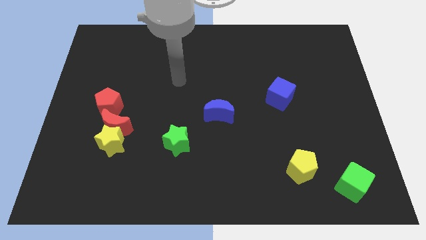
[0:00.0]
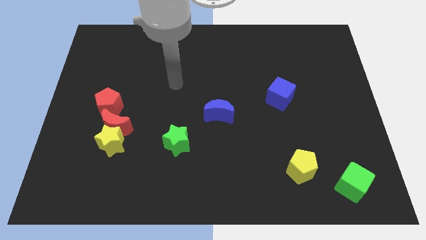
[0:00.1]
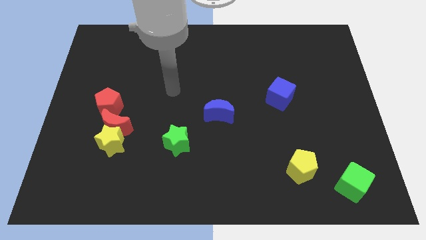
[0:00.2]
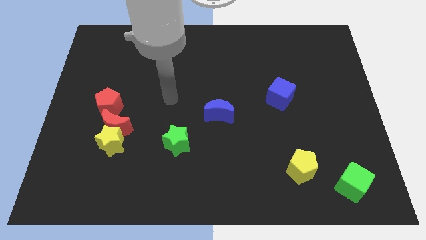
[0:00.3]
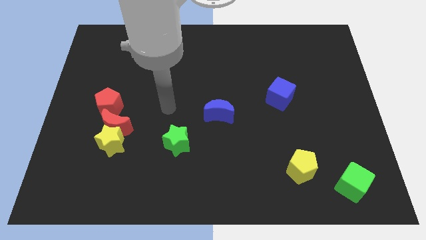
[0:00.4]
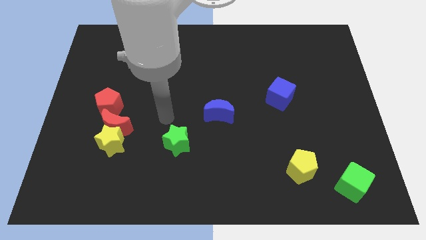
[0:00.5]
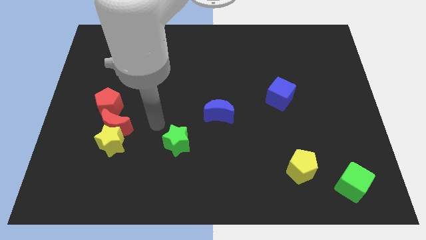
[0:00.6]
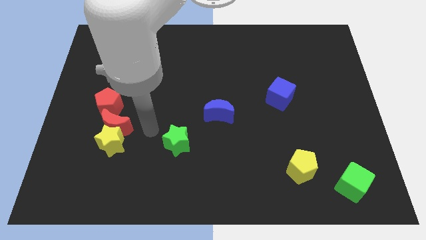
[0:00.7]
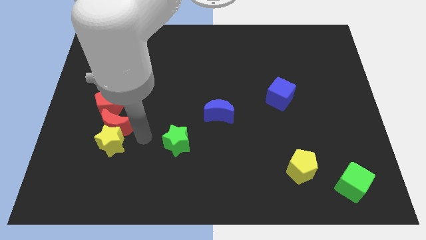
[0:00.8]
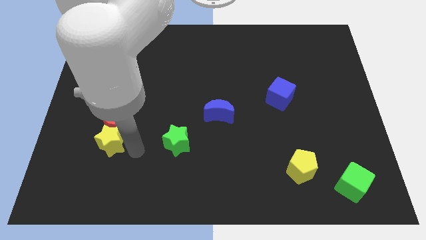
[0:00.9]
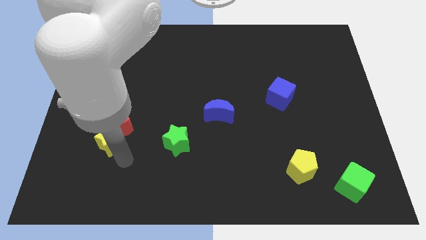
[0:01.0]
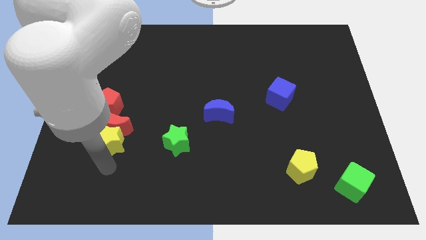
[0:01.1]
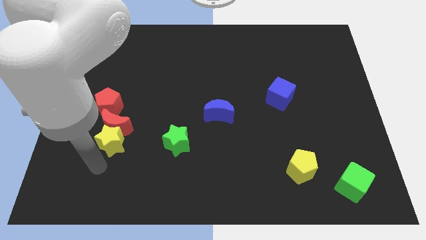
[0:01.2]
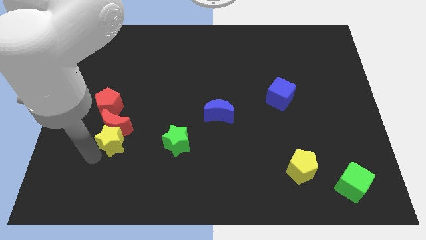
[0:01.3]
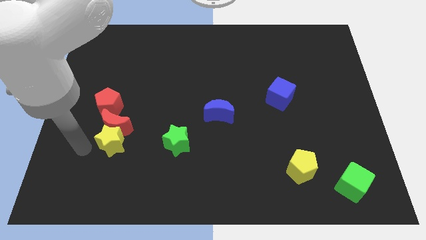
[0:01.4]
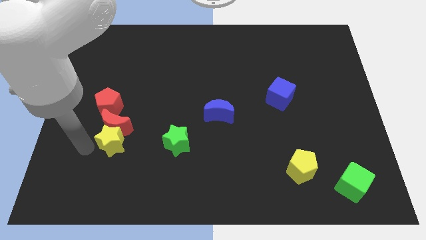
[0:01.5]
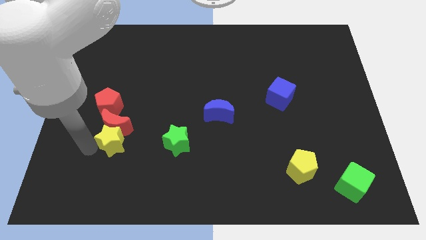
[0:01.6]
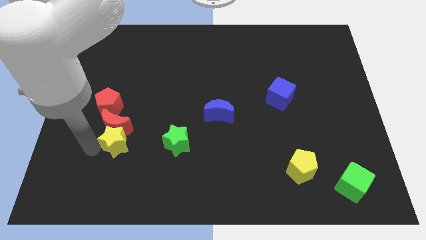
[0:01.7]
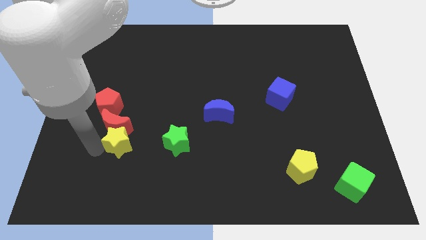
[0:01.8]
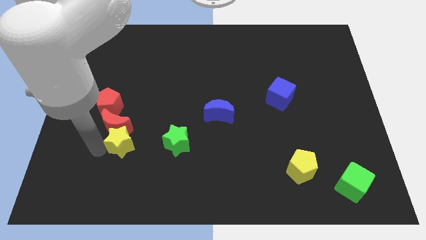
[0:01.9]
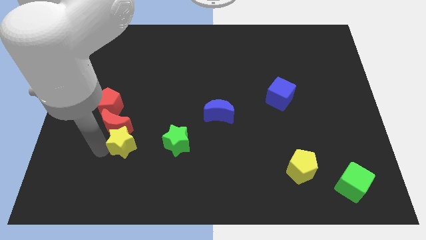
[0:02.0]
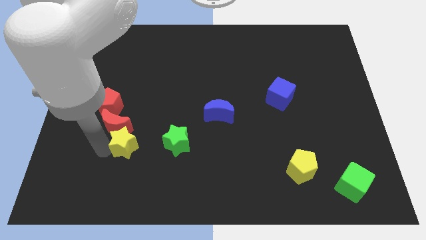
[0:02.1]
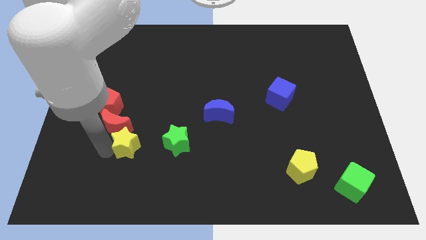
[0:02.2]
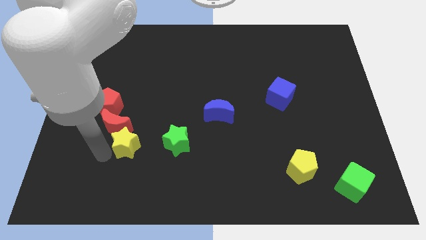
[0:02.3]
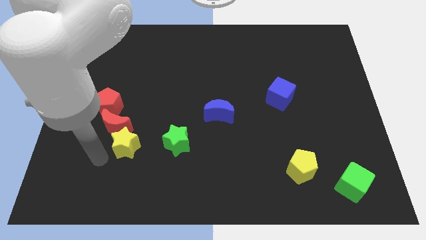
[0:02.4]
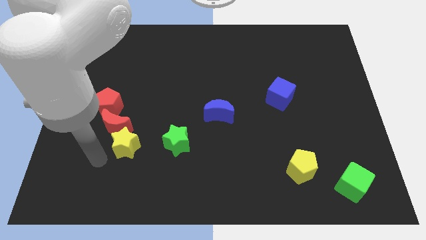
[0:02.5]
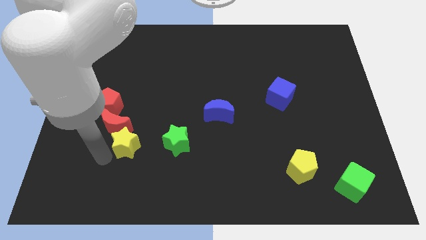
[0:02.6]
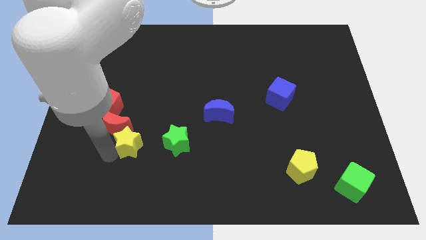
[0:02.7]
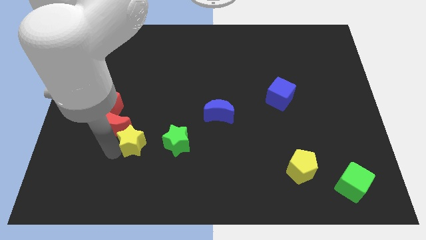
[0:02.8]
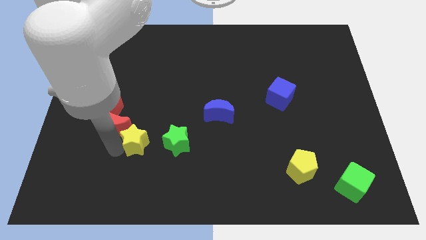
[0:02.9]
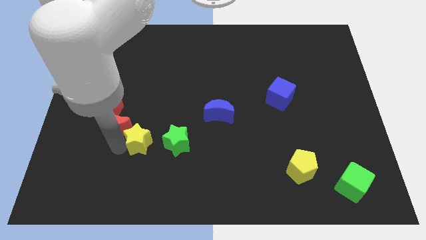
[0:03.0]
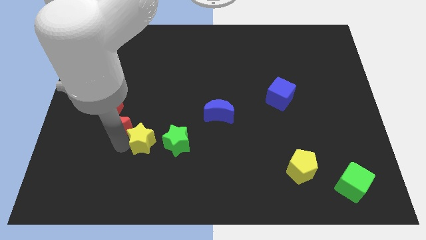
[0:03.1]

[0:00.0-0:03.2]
slide the yellow star slightly to the right

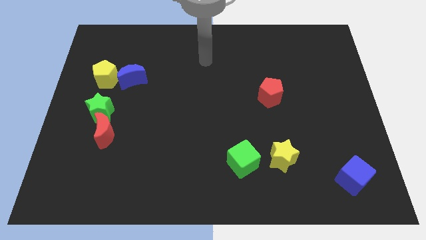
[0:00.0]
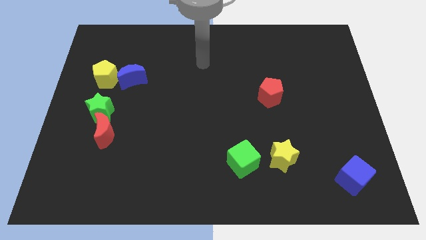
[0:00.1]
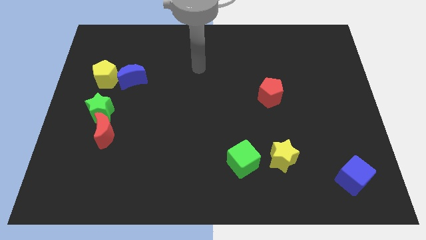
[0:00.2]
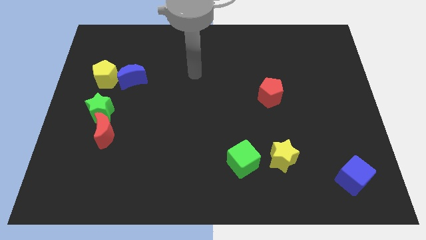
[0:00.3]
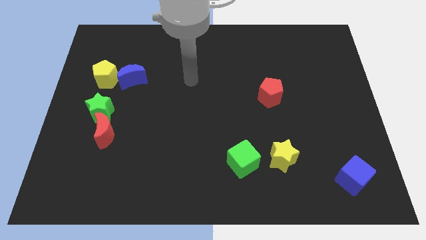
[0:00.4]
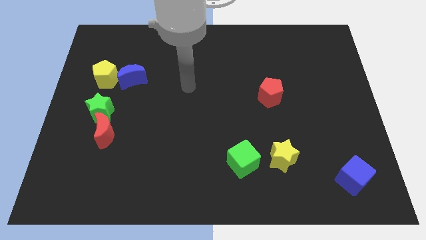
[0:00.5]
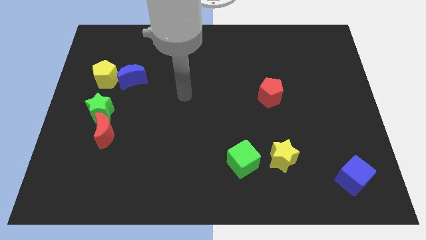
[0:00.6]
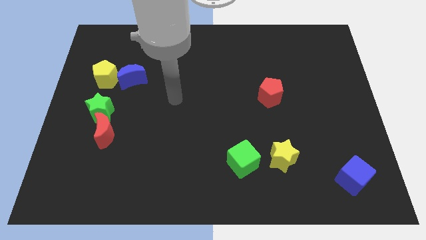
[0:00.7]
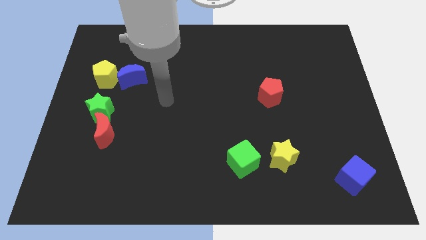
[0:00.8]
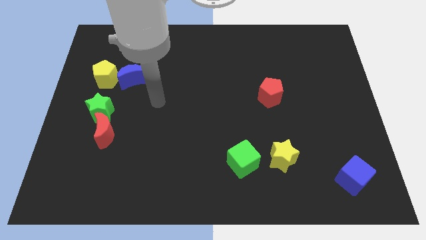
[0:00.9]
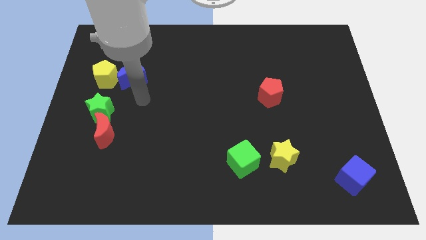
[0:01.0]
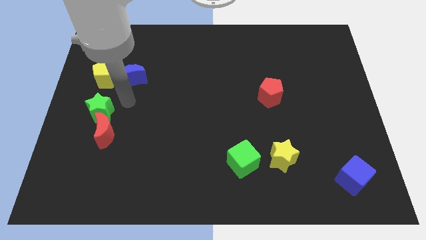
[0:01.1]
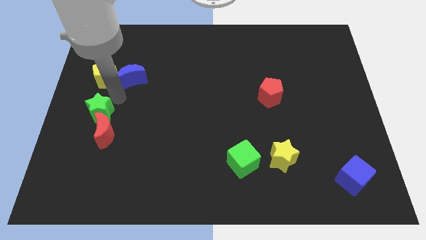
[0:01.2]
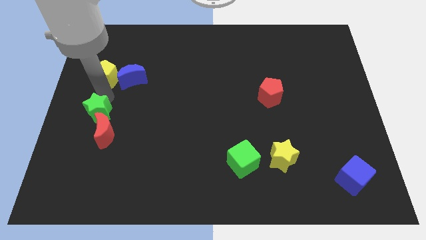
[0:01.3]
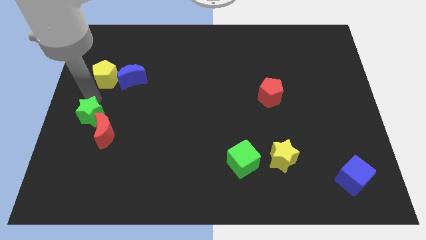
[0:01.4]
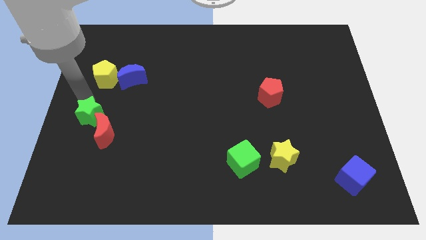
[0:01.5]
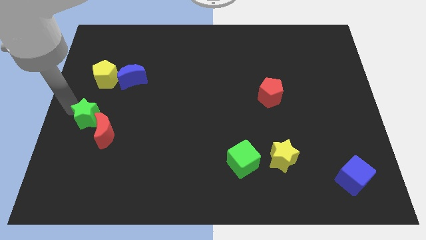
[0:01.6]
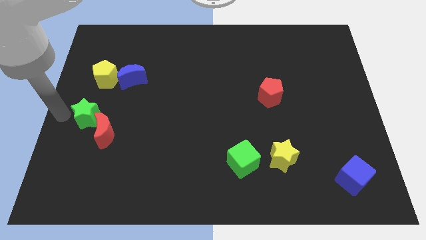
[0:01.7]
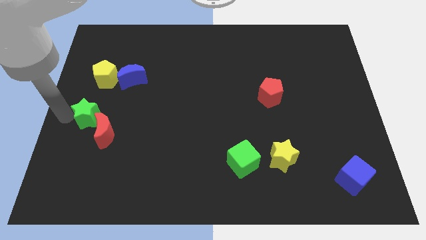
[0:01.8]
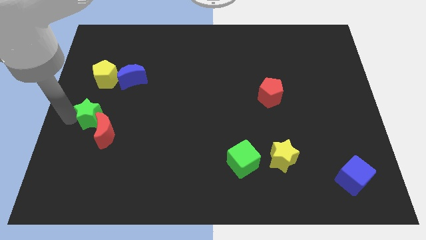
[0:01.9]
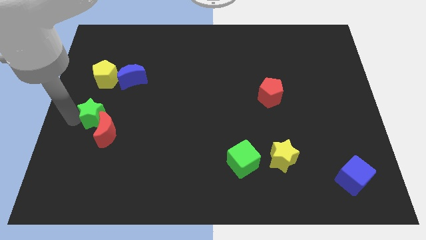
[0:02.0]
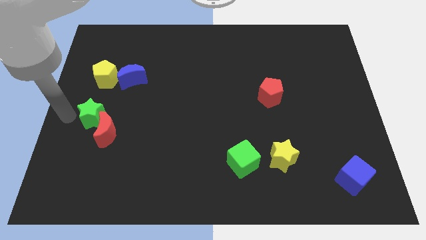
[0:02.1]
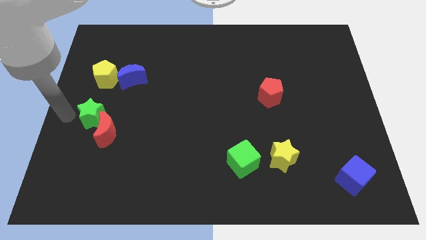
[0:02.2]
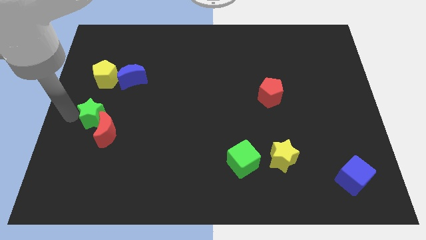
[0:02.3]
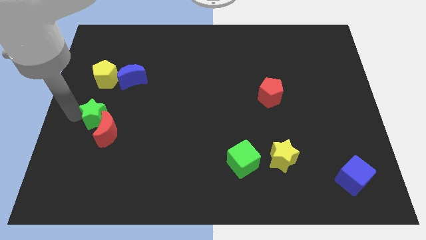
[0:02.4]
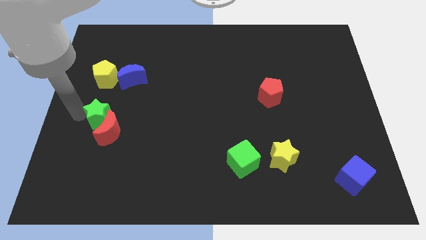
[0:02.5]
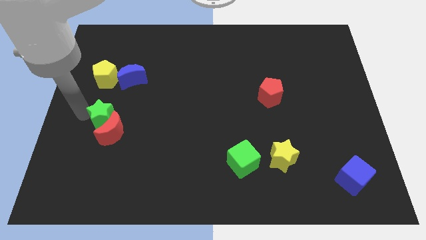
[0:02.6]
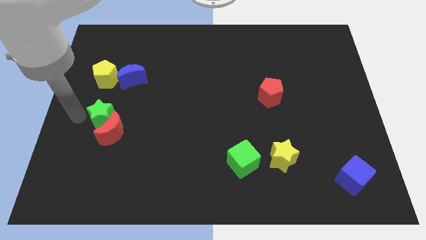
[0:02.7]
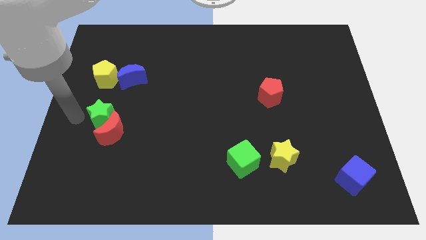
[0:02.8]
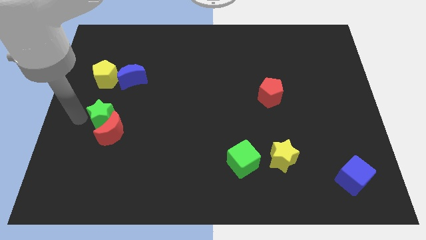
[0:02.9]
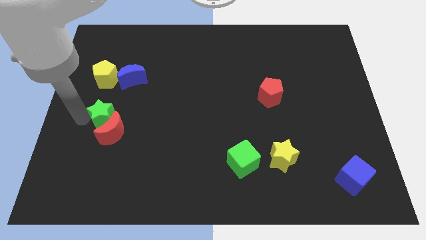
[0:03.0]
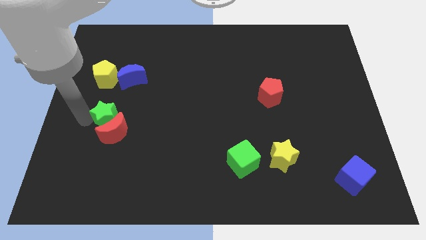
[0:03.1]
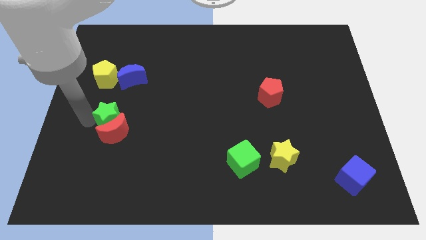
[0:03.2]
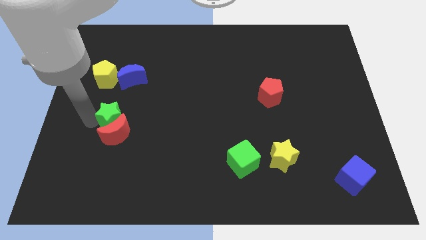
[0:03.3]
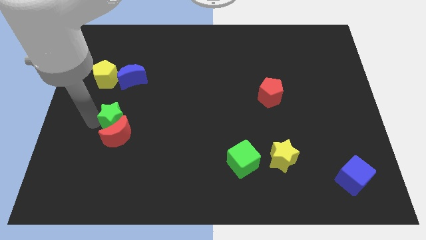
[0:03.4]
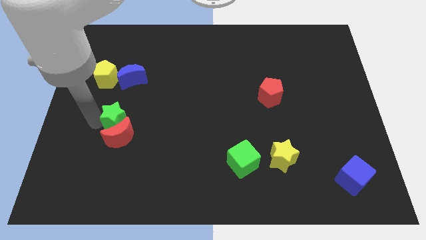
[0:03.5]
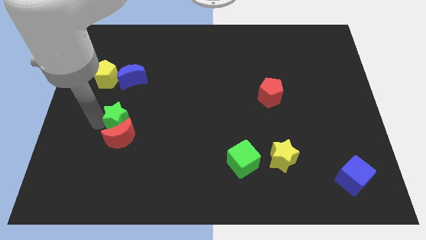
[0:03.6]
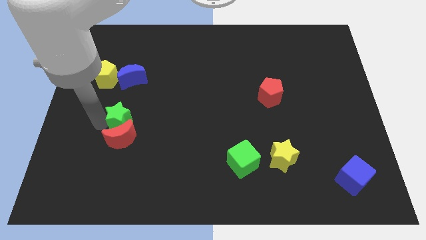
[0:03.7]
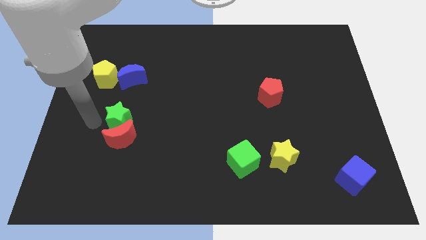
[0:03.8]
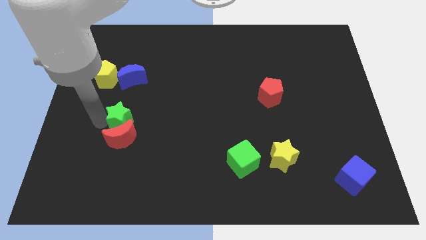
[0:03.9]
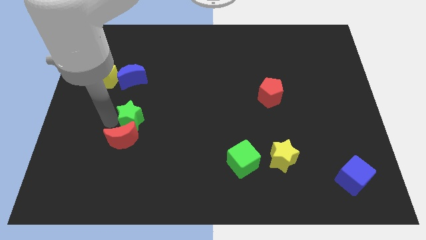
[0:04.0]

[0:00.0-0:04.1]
push the green star slightly to the right

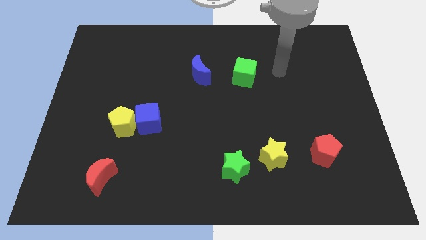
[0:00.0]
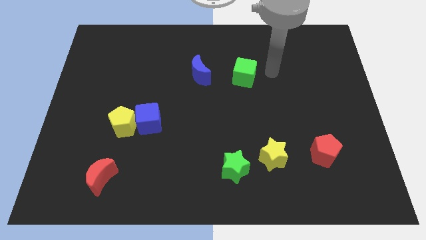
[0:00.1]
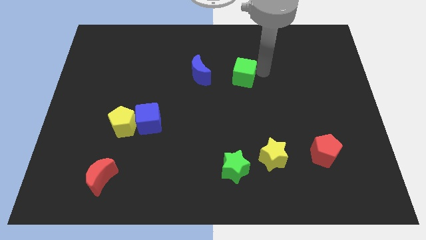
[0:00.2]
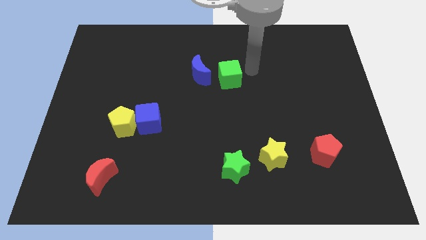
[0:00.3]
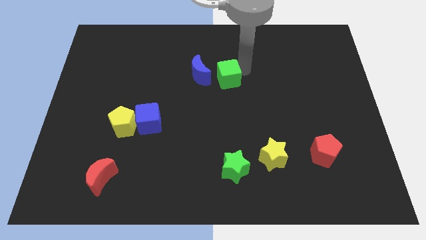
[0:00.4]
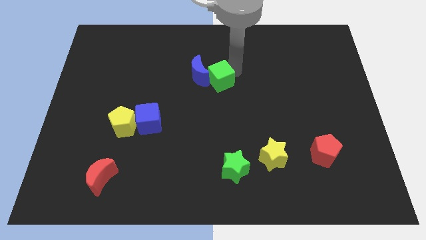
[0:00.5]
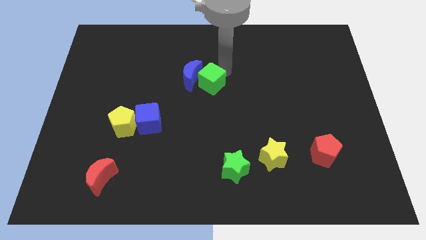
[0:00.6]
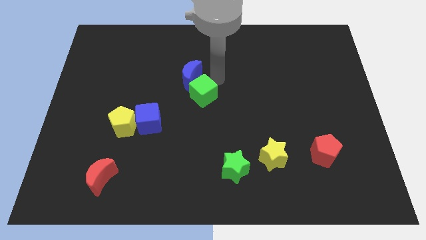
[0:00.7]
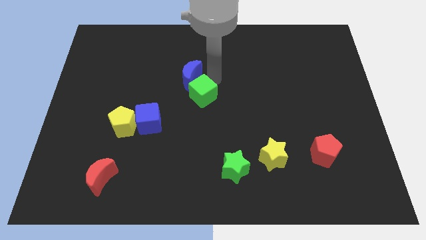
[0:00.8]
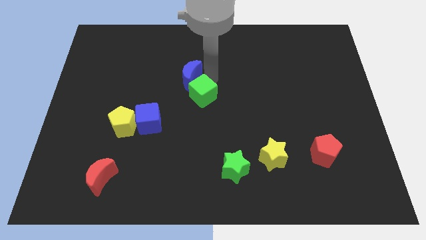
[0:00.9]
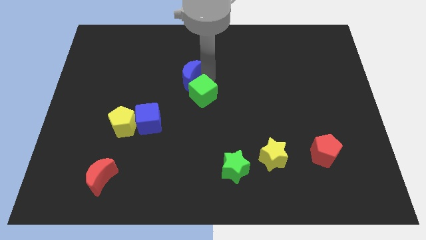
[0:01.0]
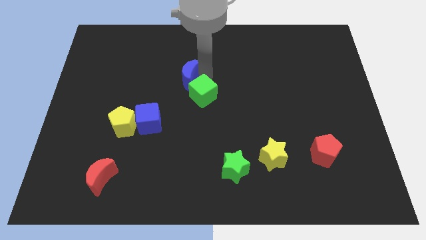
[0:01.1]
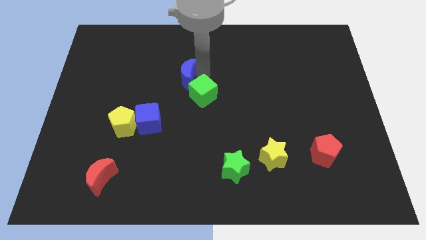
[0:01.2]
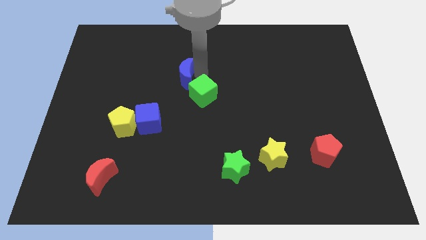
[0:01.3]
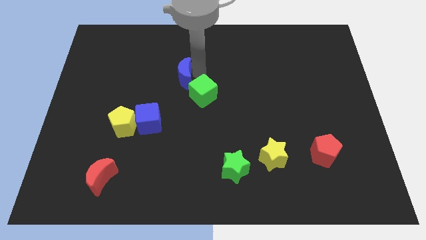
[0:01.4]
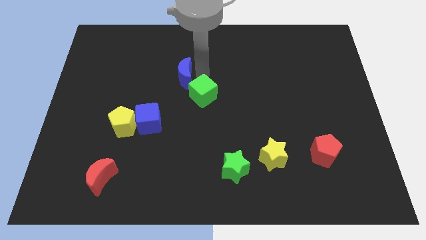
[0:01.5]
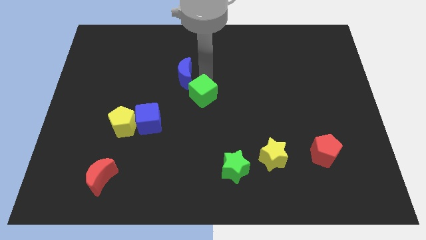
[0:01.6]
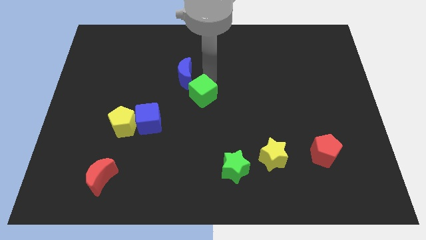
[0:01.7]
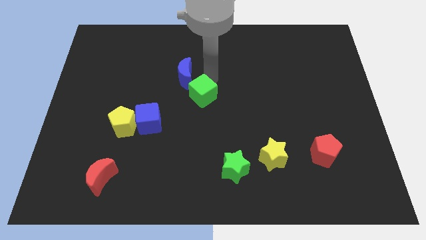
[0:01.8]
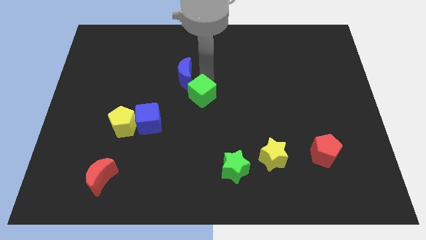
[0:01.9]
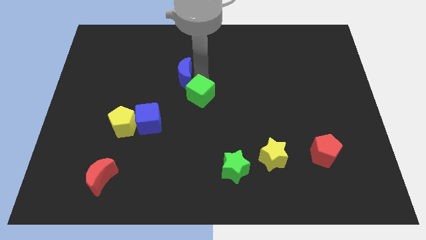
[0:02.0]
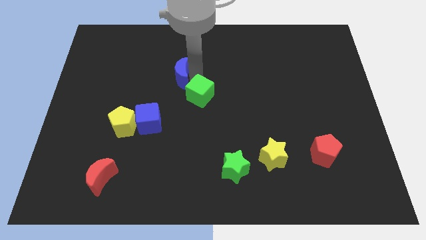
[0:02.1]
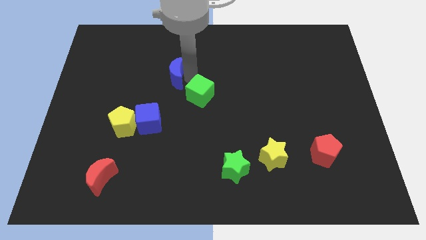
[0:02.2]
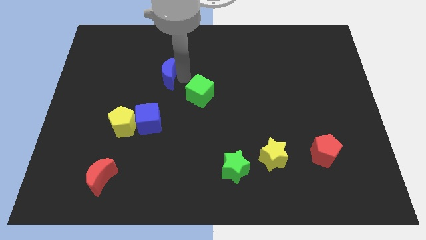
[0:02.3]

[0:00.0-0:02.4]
move the blue moon a little bit left
